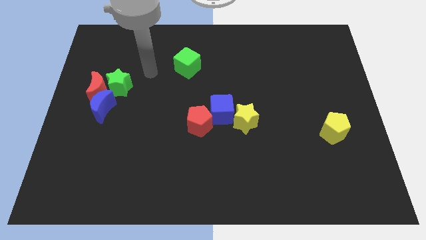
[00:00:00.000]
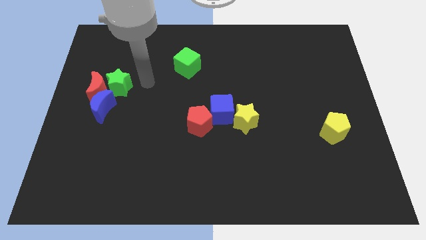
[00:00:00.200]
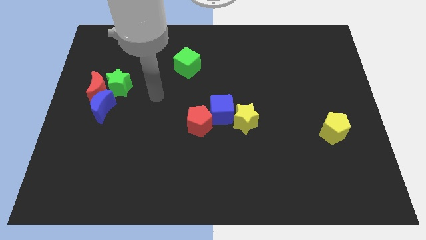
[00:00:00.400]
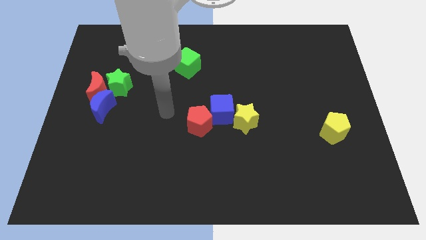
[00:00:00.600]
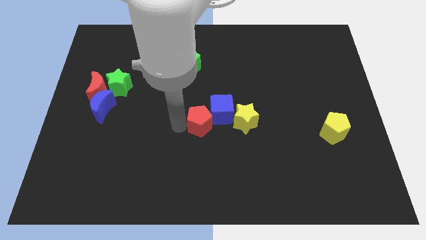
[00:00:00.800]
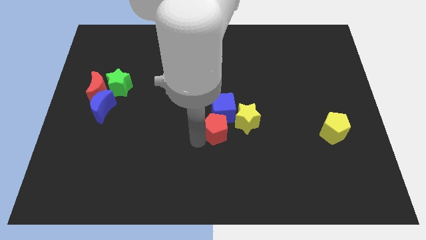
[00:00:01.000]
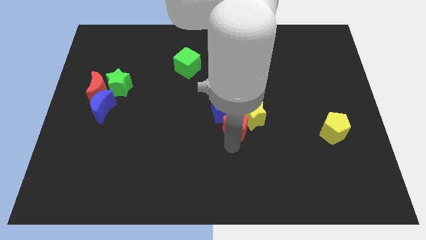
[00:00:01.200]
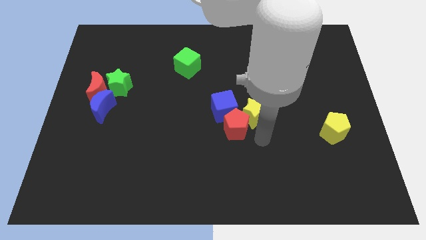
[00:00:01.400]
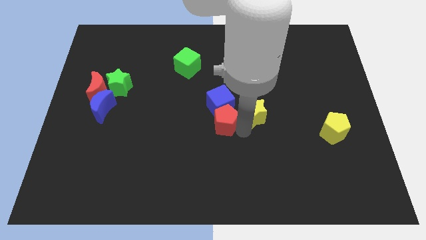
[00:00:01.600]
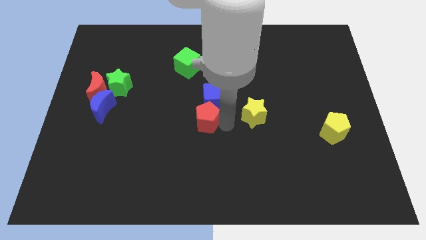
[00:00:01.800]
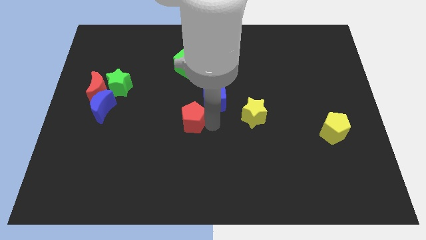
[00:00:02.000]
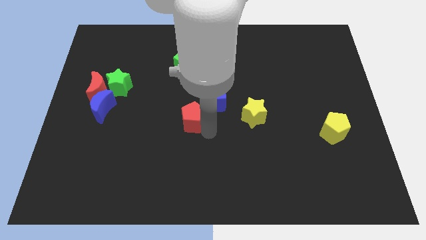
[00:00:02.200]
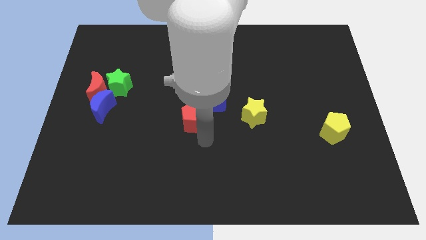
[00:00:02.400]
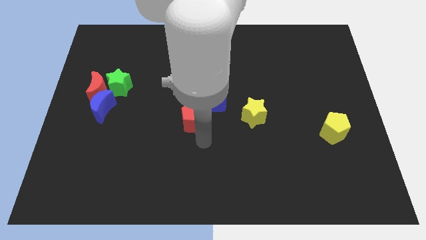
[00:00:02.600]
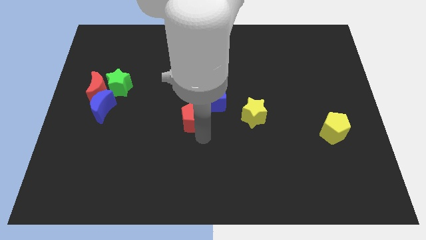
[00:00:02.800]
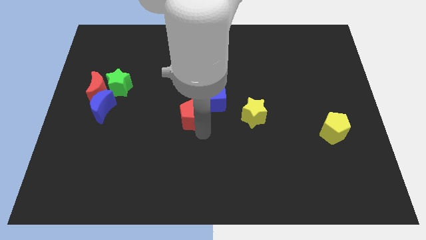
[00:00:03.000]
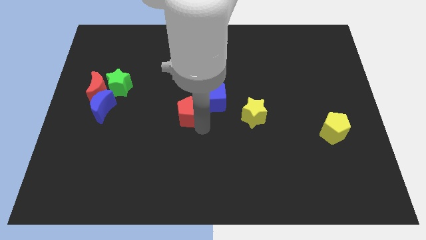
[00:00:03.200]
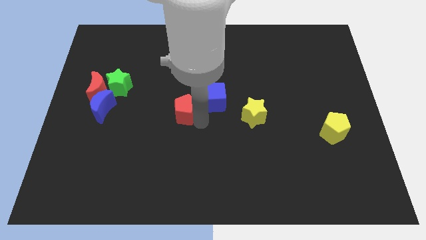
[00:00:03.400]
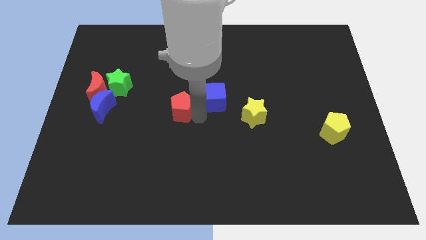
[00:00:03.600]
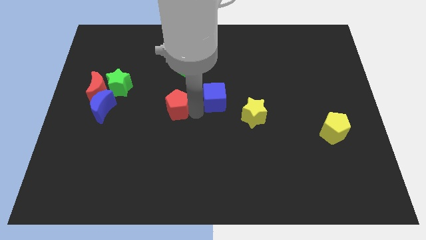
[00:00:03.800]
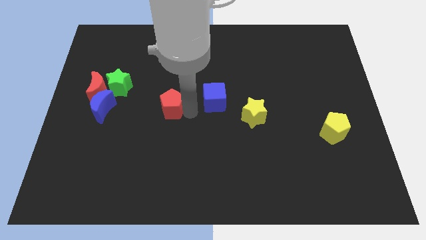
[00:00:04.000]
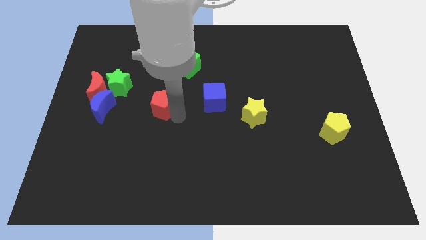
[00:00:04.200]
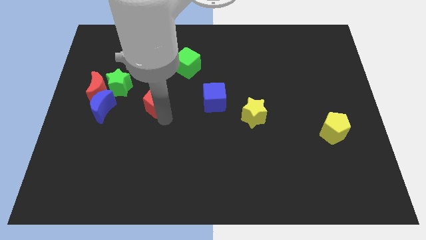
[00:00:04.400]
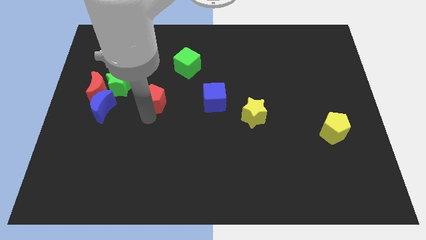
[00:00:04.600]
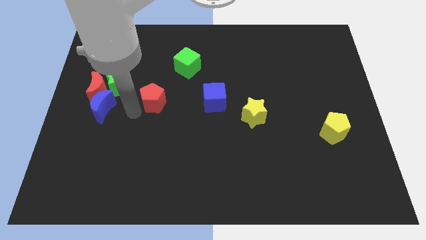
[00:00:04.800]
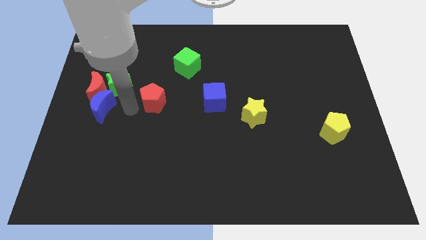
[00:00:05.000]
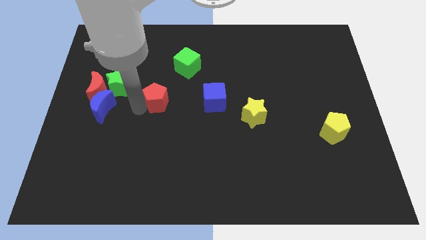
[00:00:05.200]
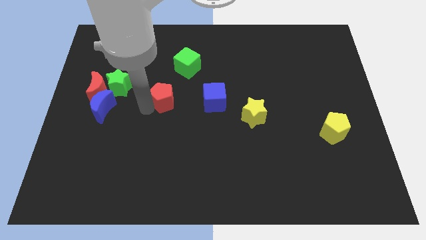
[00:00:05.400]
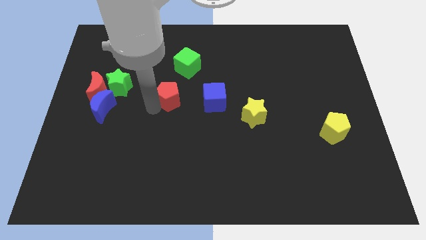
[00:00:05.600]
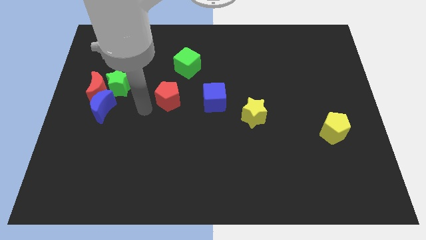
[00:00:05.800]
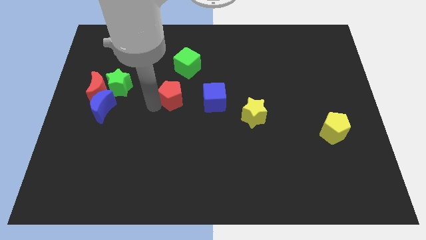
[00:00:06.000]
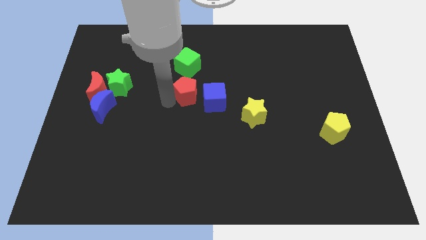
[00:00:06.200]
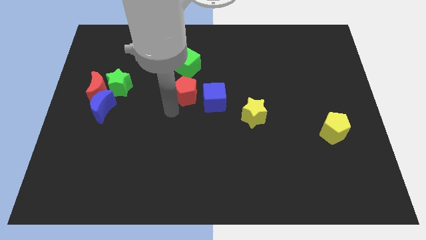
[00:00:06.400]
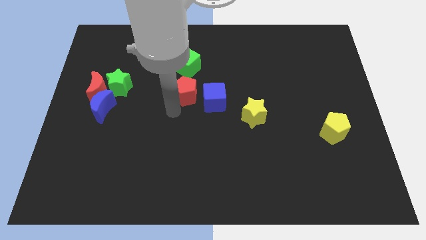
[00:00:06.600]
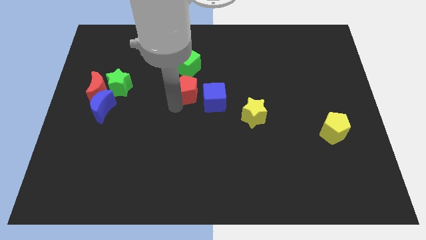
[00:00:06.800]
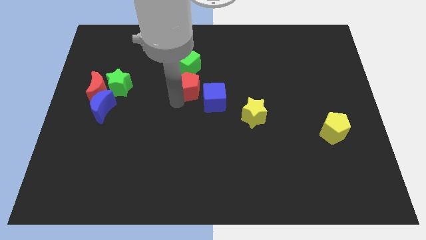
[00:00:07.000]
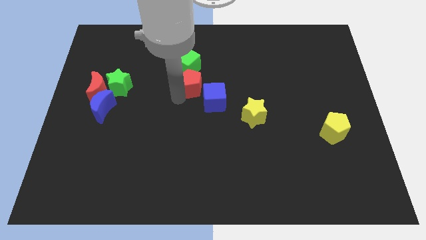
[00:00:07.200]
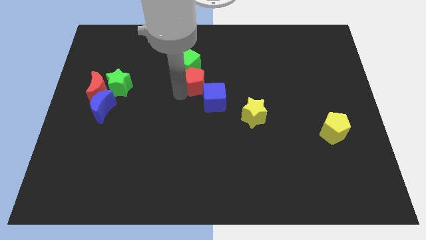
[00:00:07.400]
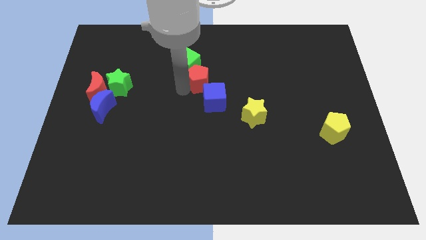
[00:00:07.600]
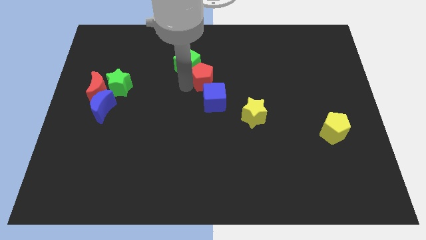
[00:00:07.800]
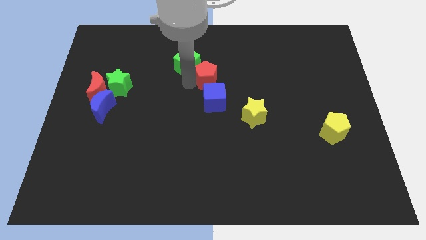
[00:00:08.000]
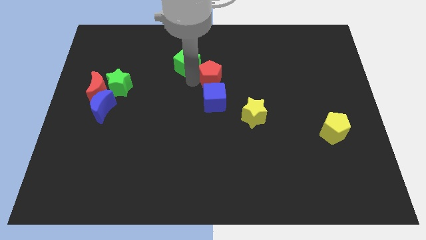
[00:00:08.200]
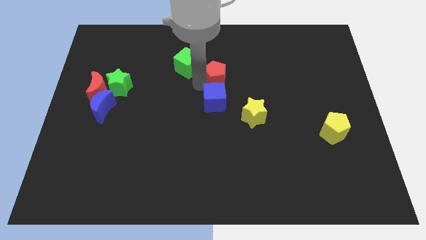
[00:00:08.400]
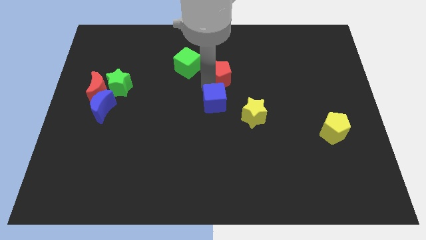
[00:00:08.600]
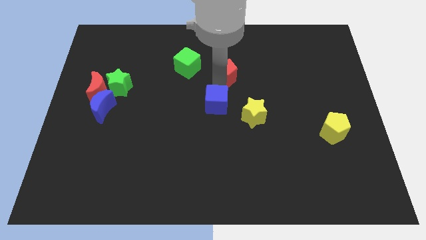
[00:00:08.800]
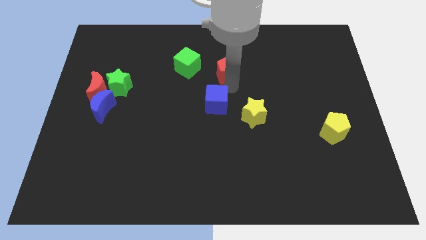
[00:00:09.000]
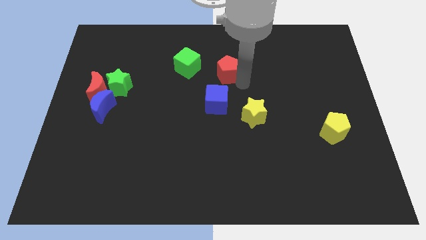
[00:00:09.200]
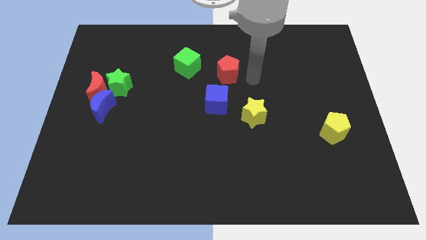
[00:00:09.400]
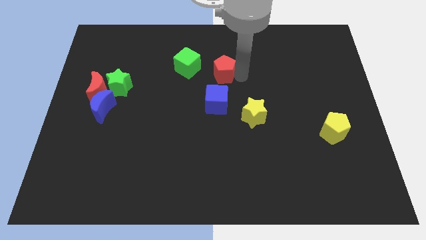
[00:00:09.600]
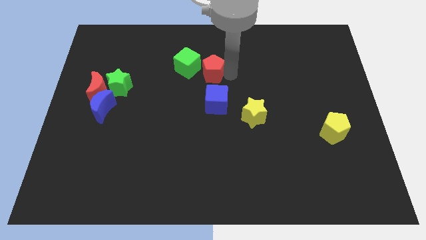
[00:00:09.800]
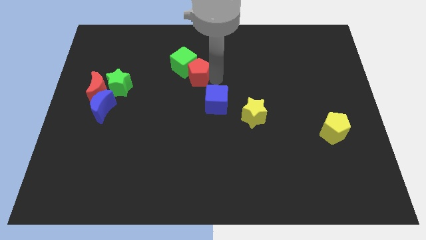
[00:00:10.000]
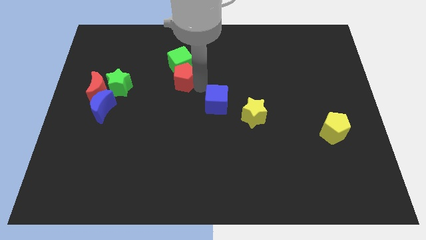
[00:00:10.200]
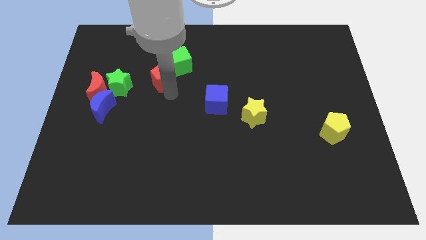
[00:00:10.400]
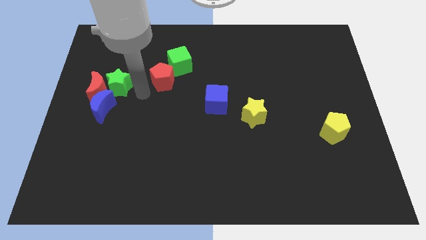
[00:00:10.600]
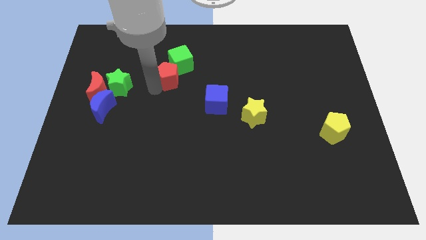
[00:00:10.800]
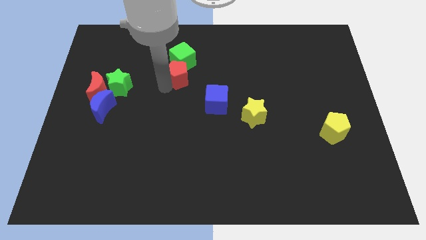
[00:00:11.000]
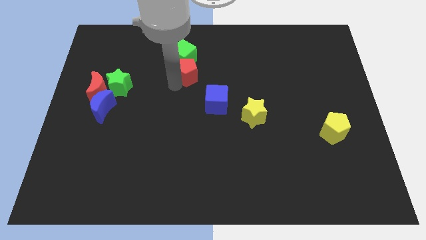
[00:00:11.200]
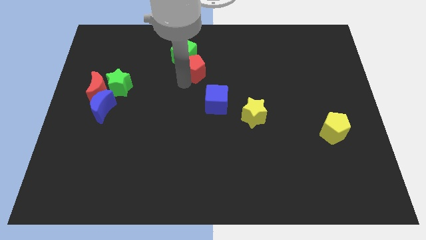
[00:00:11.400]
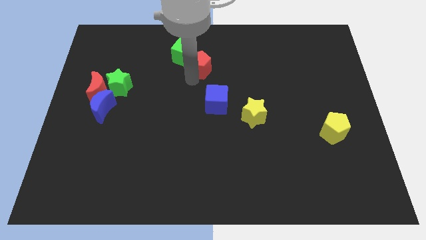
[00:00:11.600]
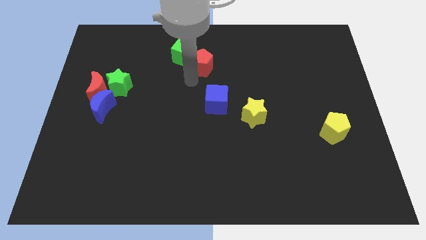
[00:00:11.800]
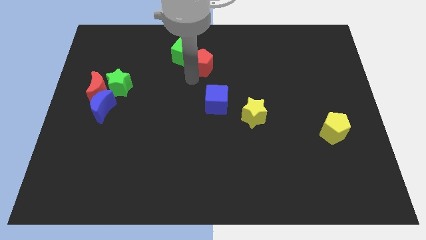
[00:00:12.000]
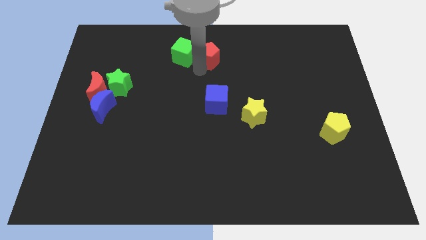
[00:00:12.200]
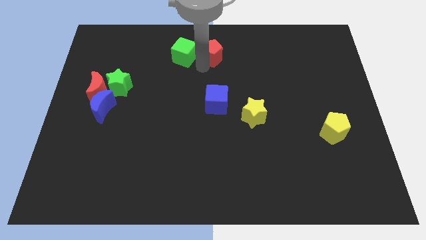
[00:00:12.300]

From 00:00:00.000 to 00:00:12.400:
push the red pentagon to the towards your base

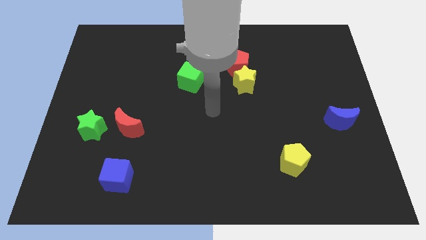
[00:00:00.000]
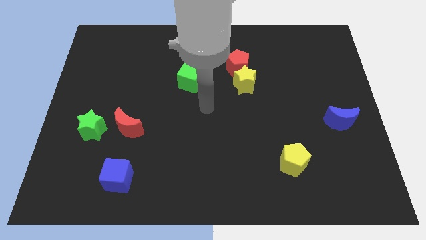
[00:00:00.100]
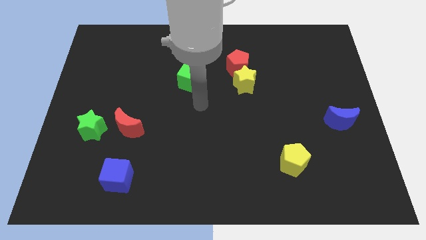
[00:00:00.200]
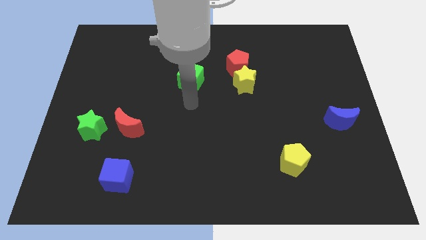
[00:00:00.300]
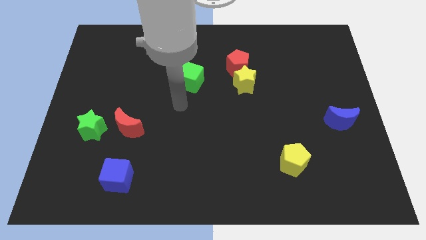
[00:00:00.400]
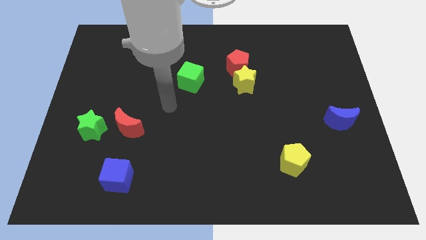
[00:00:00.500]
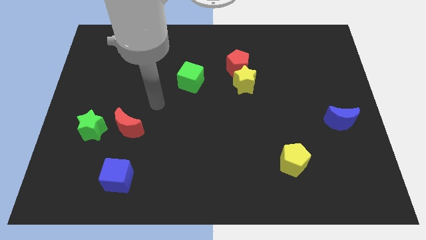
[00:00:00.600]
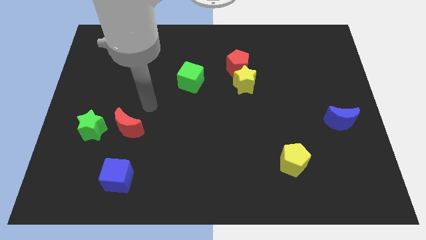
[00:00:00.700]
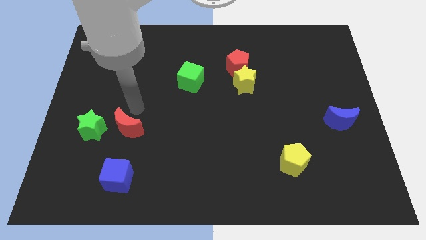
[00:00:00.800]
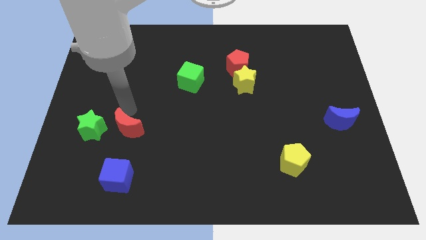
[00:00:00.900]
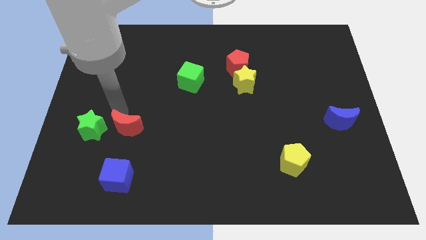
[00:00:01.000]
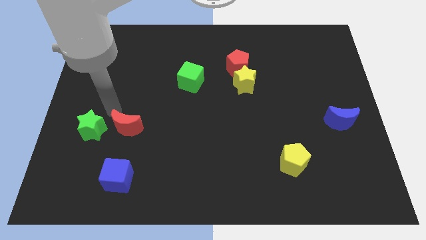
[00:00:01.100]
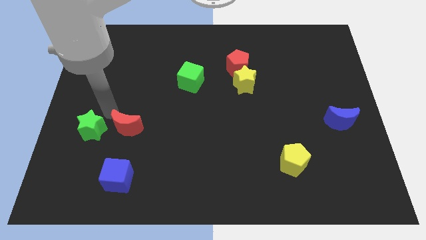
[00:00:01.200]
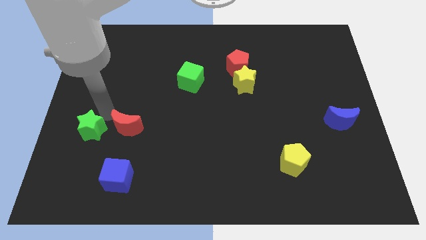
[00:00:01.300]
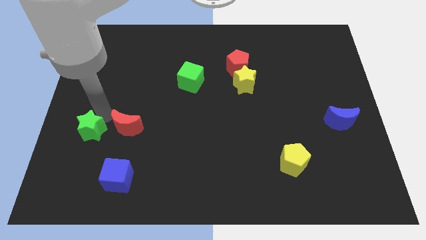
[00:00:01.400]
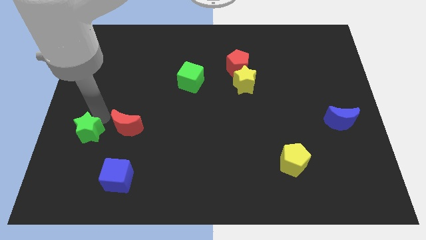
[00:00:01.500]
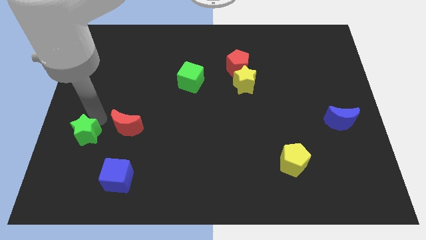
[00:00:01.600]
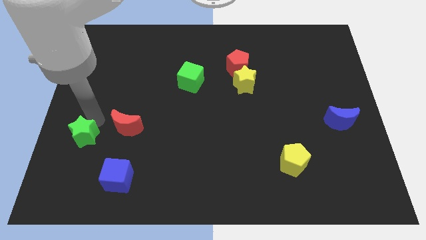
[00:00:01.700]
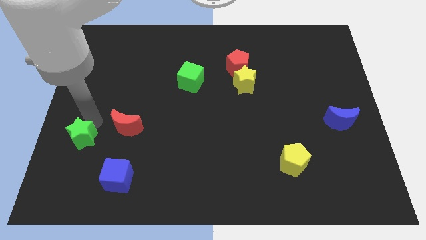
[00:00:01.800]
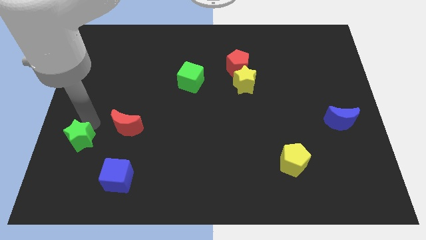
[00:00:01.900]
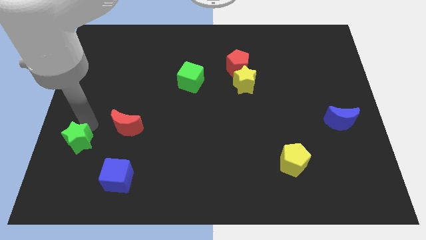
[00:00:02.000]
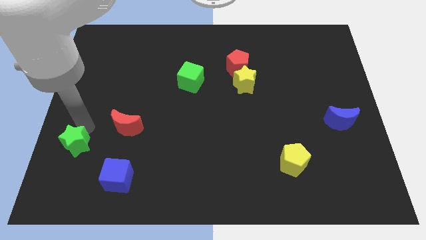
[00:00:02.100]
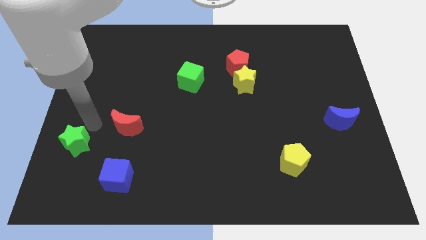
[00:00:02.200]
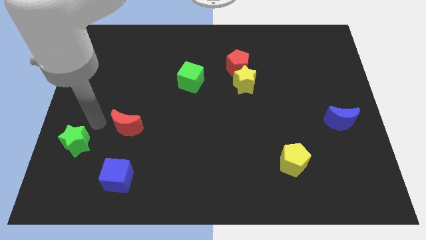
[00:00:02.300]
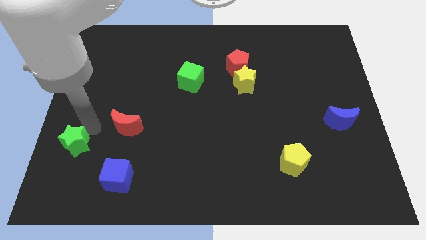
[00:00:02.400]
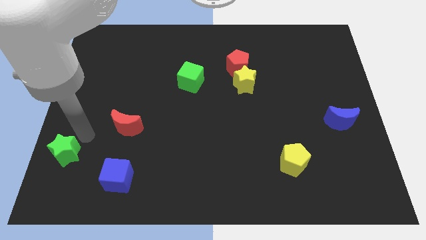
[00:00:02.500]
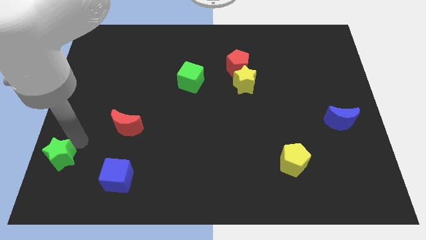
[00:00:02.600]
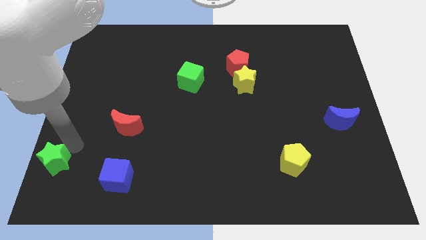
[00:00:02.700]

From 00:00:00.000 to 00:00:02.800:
move the green star to the lower left corner
